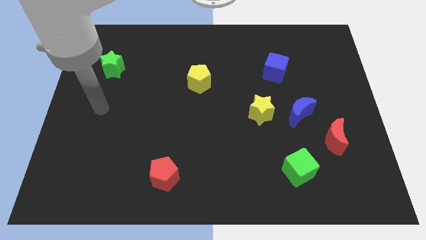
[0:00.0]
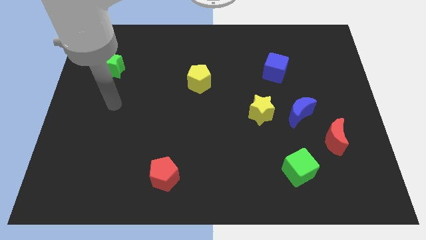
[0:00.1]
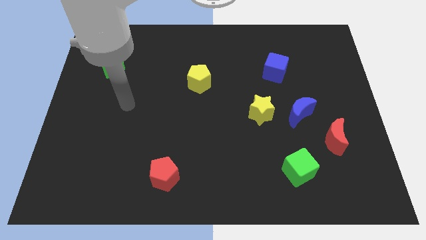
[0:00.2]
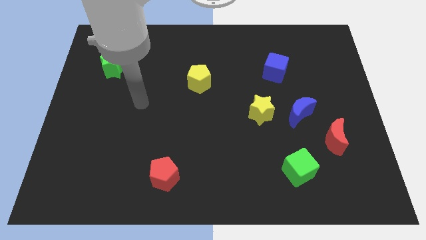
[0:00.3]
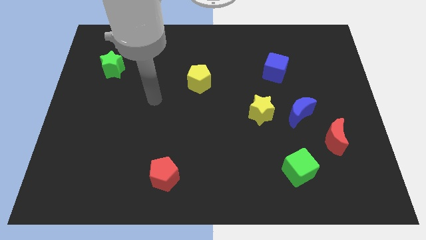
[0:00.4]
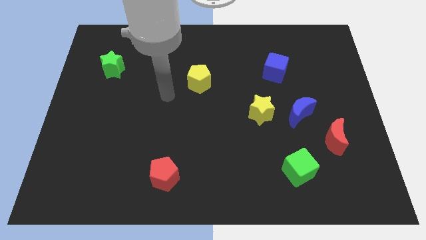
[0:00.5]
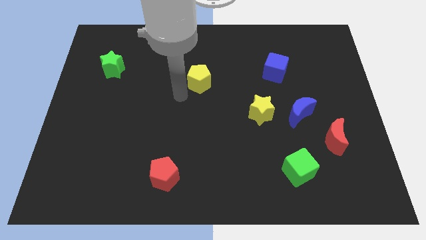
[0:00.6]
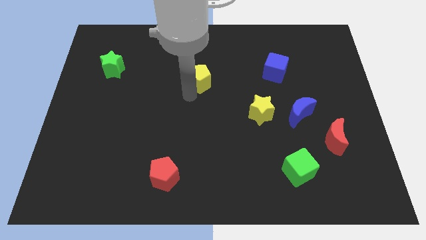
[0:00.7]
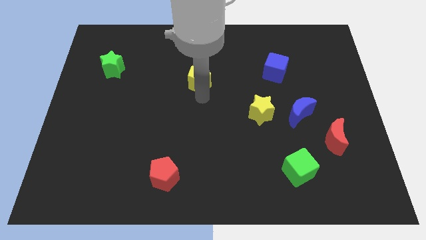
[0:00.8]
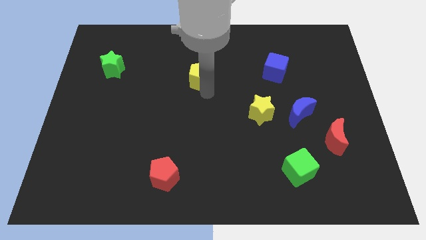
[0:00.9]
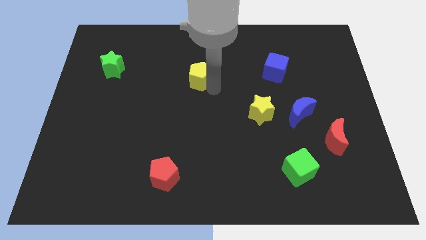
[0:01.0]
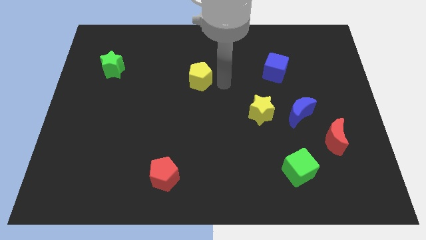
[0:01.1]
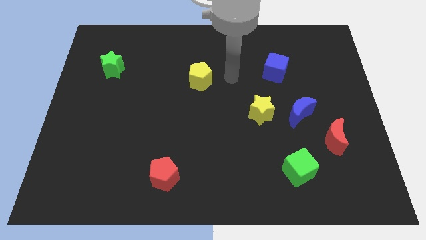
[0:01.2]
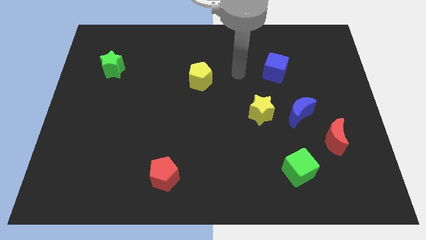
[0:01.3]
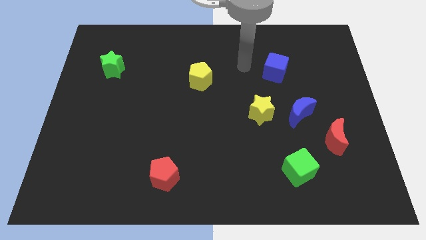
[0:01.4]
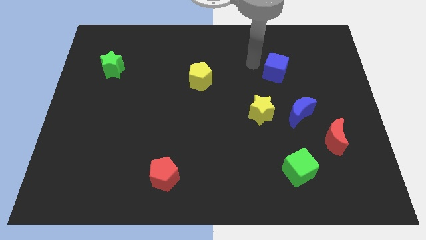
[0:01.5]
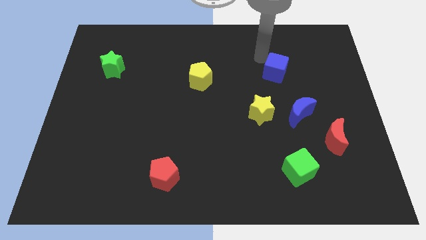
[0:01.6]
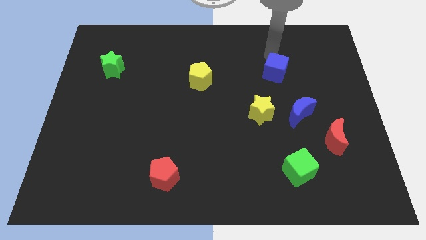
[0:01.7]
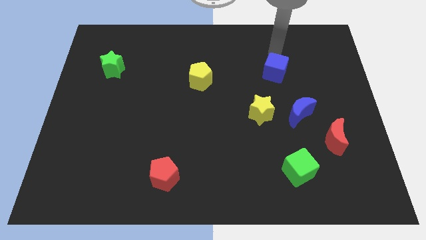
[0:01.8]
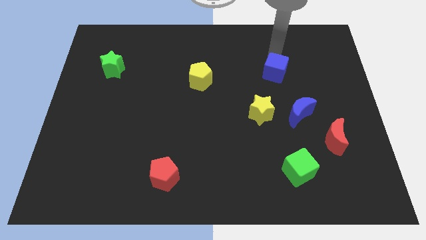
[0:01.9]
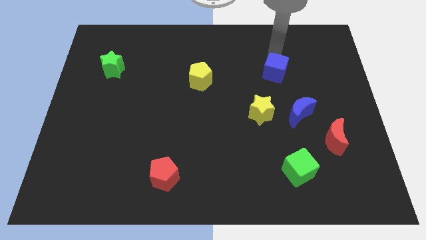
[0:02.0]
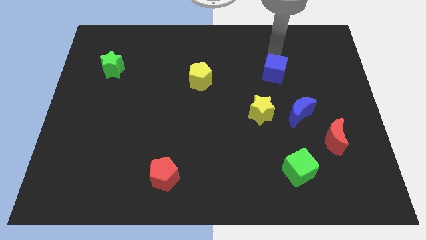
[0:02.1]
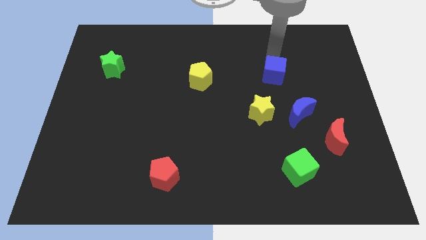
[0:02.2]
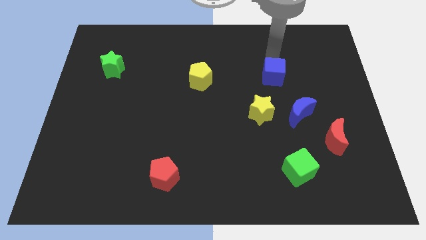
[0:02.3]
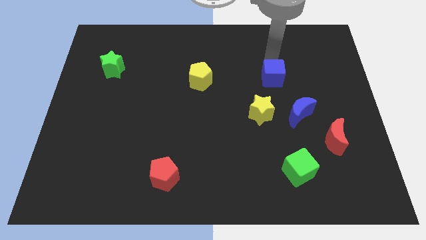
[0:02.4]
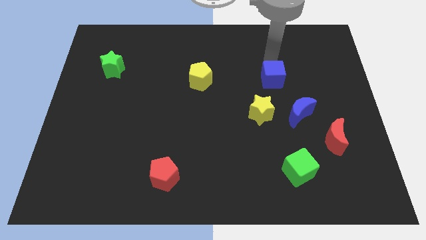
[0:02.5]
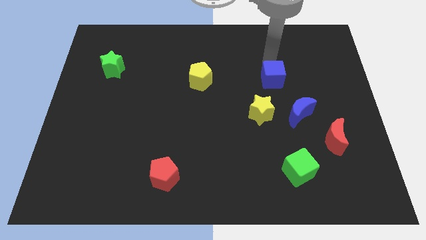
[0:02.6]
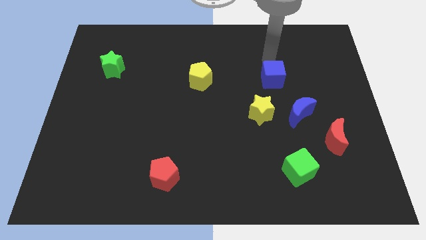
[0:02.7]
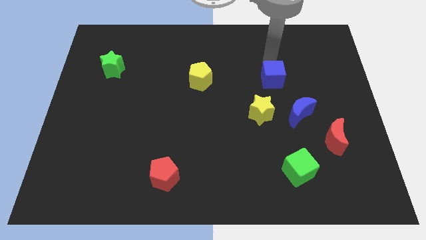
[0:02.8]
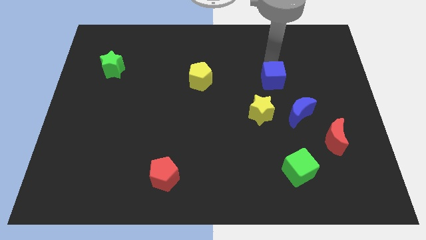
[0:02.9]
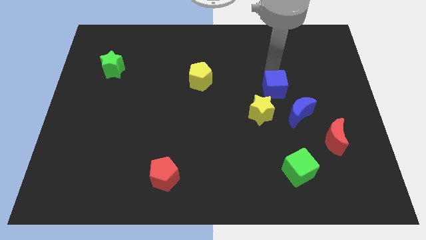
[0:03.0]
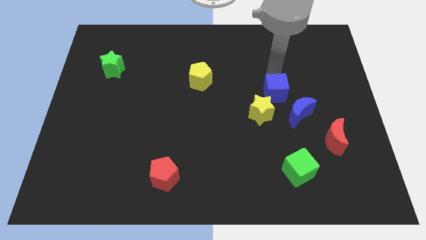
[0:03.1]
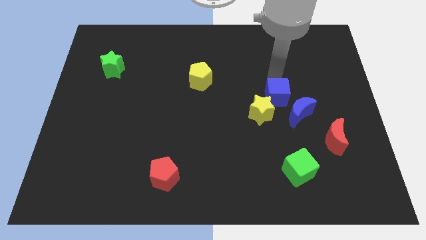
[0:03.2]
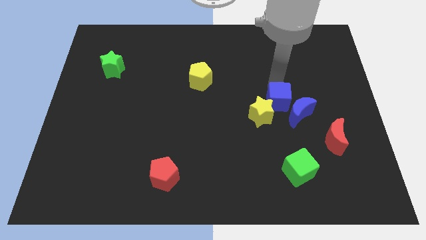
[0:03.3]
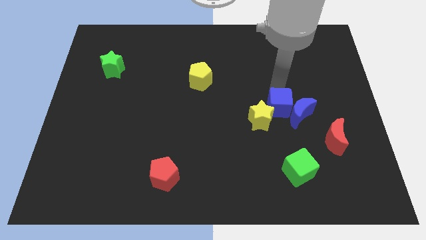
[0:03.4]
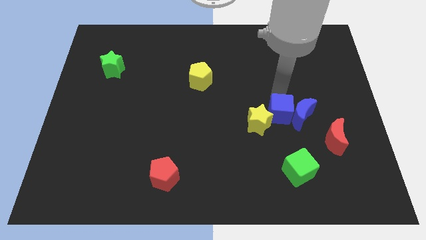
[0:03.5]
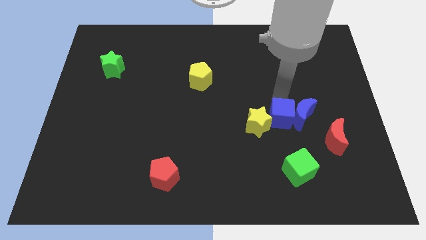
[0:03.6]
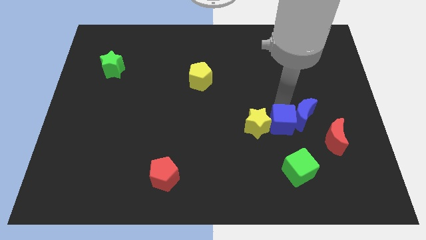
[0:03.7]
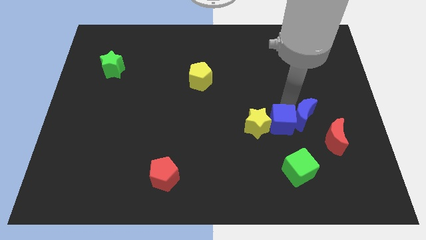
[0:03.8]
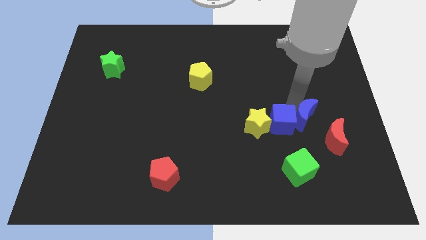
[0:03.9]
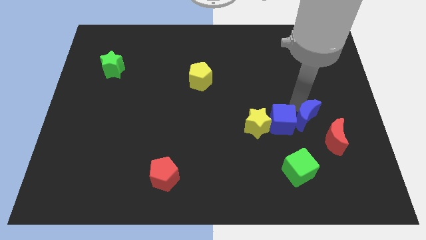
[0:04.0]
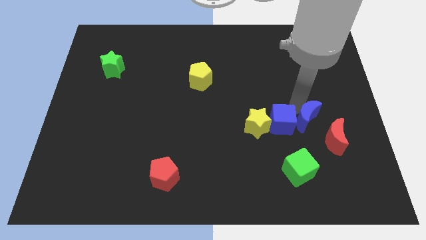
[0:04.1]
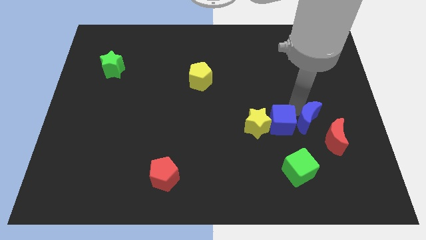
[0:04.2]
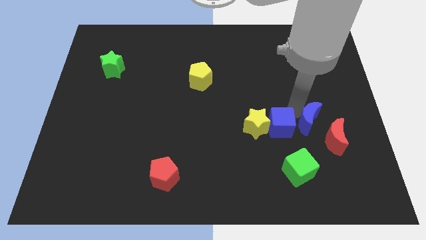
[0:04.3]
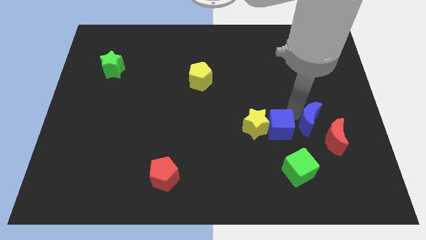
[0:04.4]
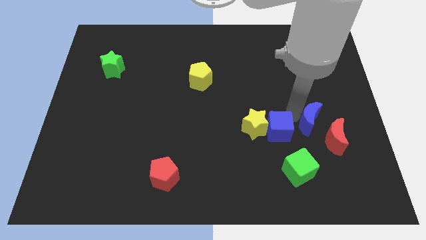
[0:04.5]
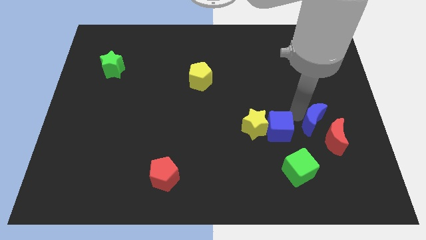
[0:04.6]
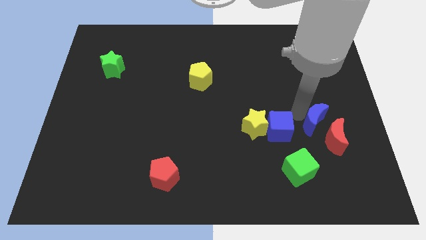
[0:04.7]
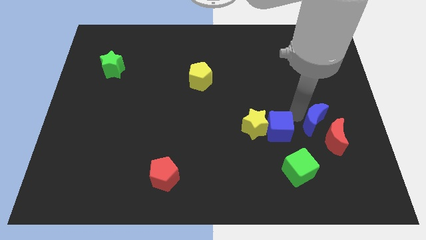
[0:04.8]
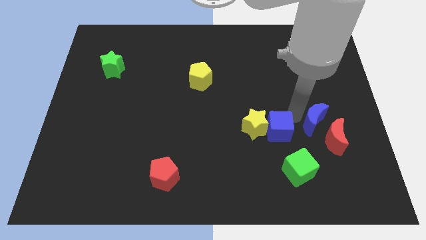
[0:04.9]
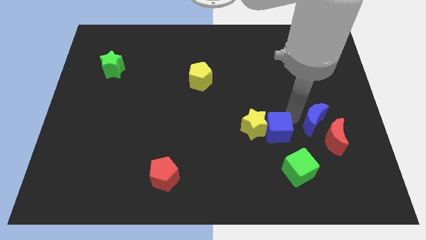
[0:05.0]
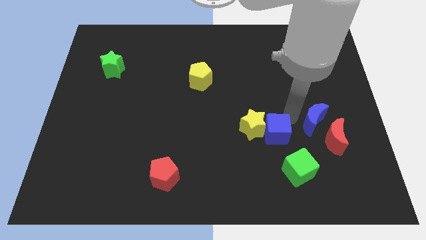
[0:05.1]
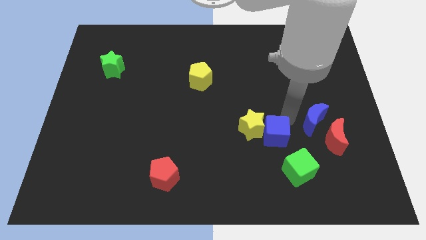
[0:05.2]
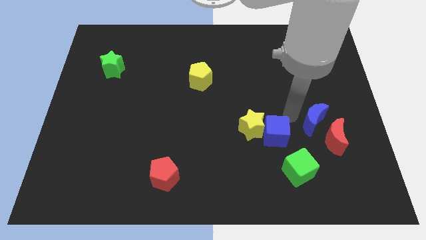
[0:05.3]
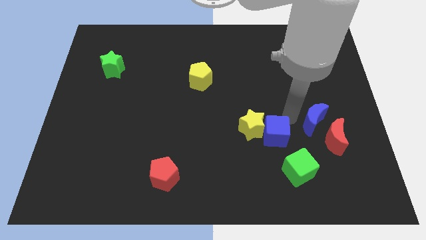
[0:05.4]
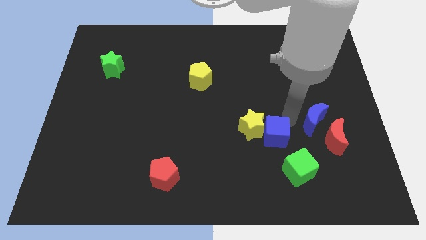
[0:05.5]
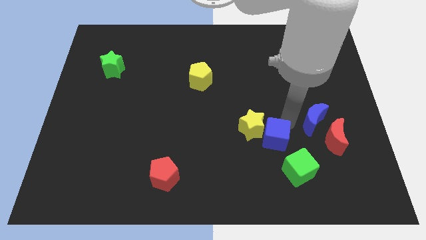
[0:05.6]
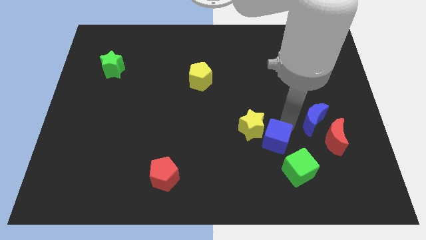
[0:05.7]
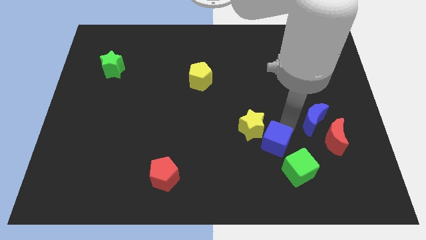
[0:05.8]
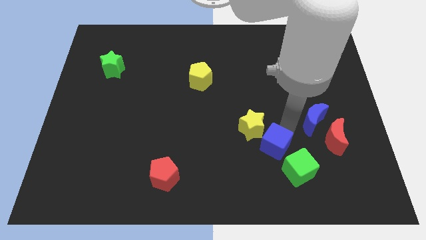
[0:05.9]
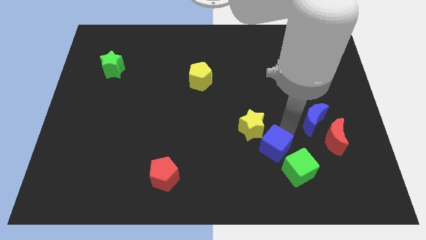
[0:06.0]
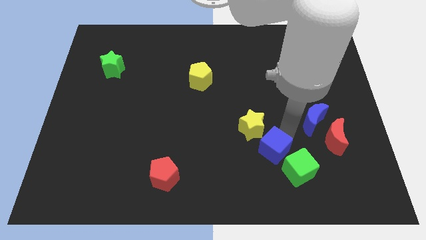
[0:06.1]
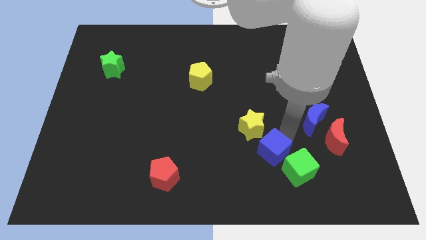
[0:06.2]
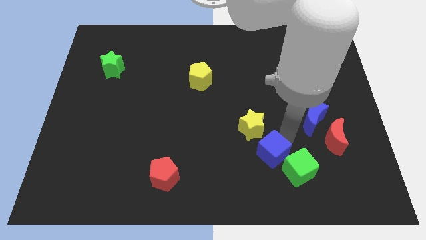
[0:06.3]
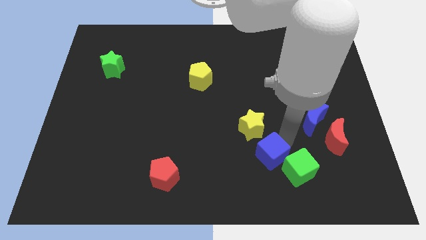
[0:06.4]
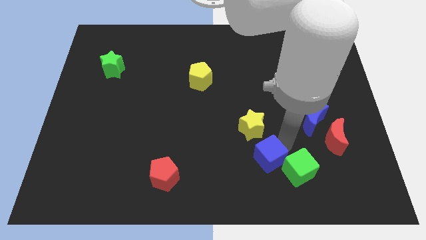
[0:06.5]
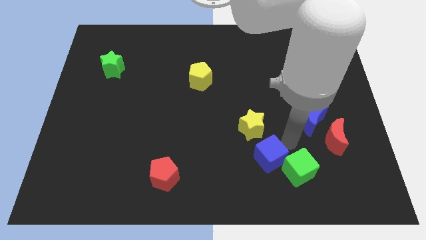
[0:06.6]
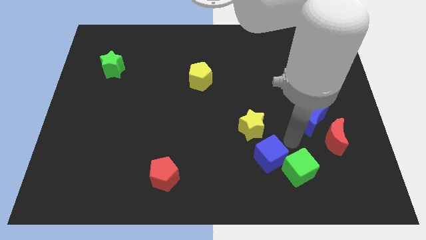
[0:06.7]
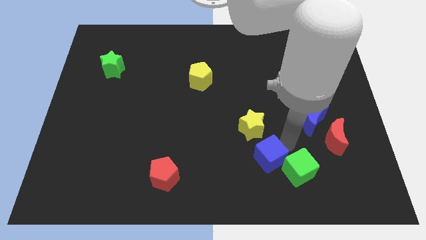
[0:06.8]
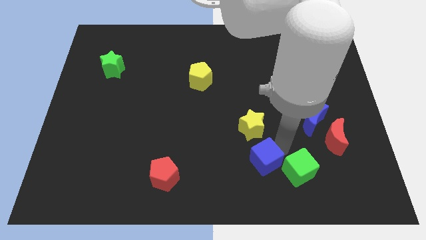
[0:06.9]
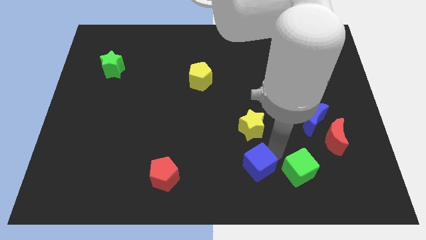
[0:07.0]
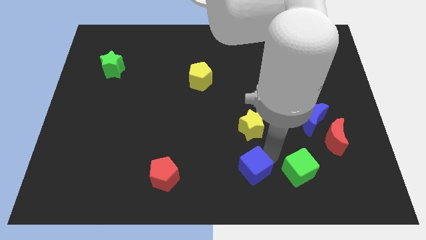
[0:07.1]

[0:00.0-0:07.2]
push the blue cube to the bottom
